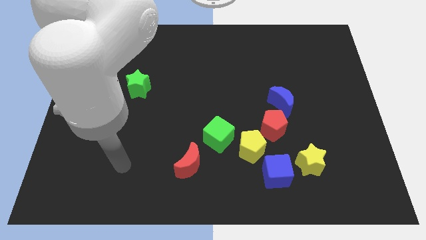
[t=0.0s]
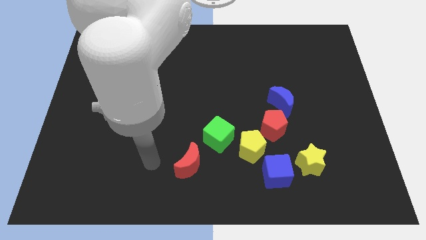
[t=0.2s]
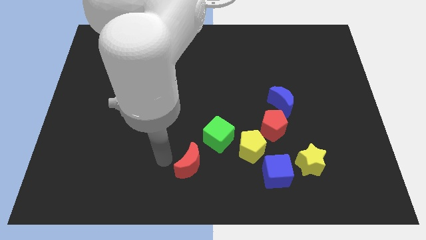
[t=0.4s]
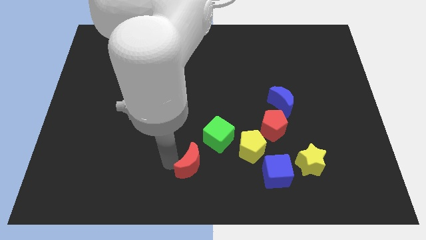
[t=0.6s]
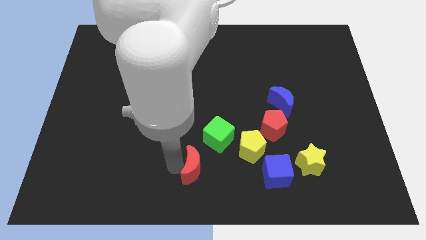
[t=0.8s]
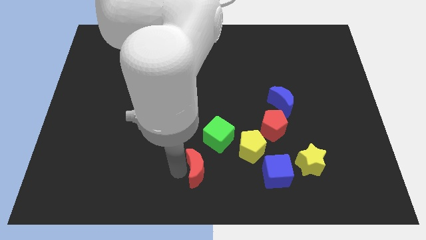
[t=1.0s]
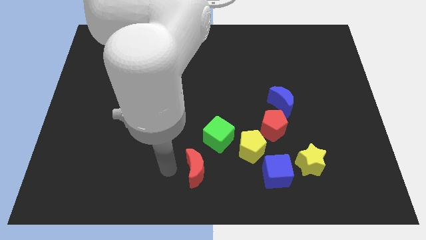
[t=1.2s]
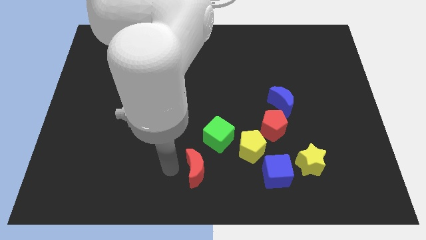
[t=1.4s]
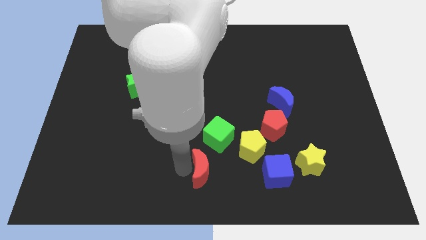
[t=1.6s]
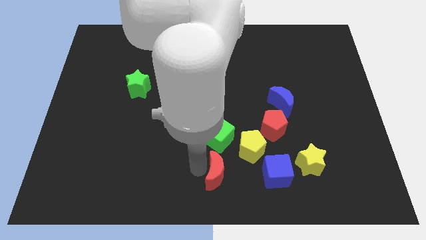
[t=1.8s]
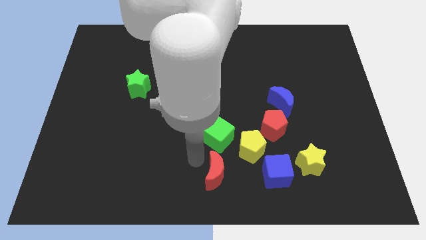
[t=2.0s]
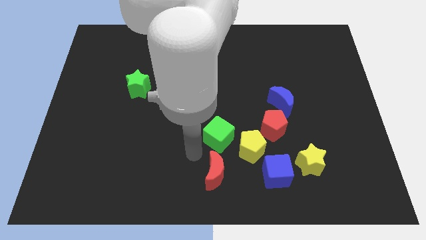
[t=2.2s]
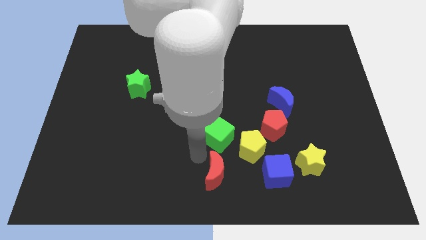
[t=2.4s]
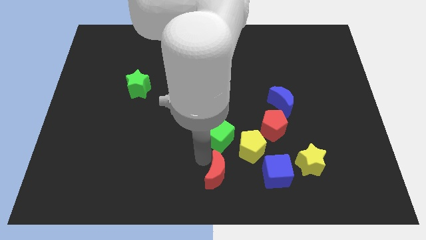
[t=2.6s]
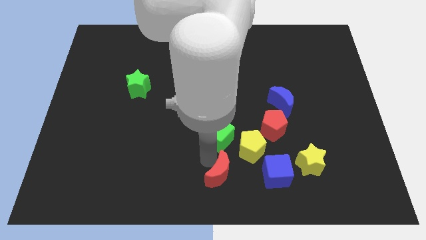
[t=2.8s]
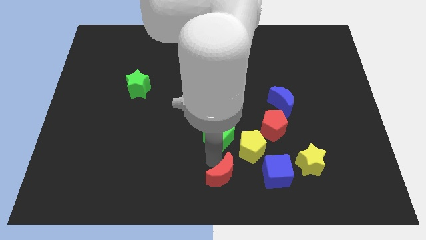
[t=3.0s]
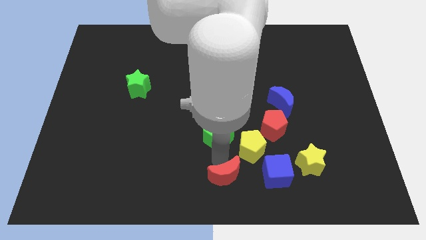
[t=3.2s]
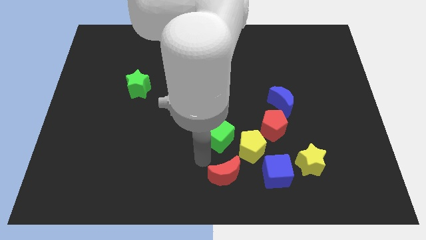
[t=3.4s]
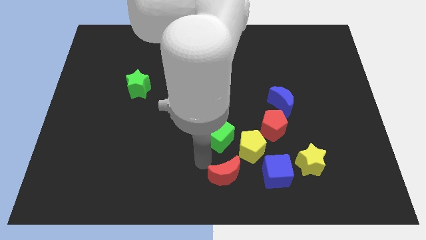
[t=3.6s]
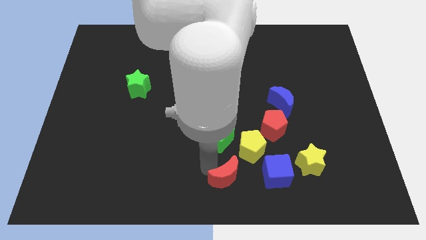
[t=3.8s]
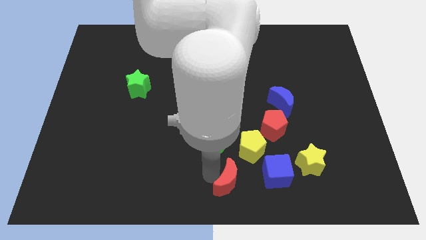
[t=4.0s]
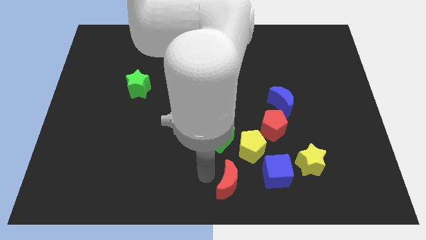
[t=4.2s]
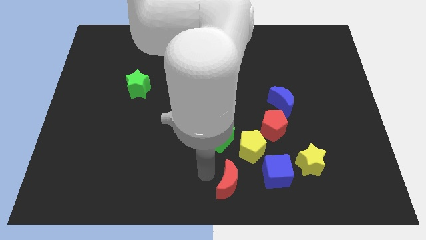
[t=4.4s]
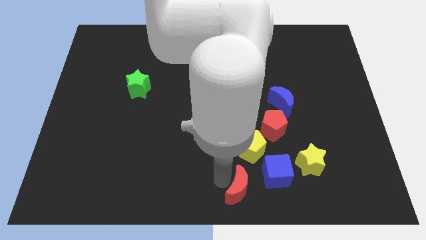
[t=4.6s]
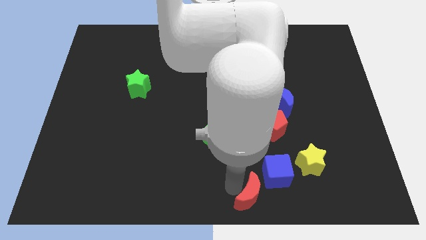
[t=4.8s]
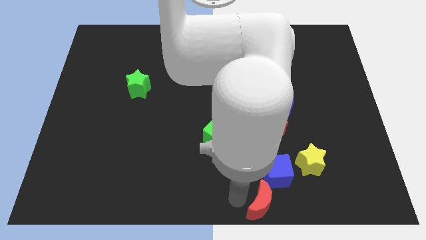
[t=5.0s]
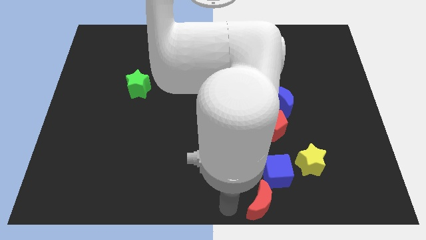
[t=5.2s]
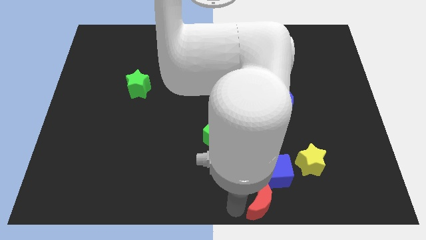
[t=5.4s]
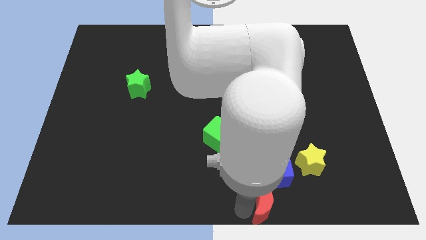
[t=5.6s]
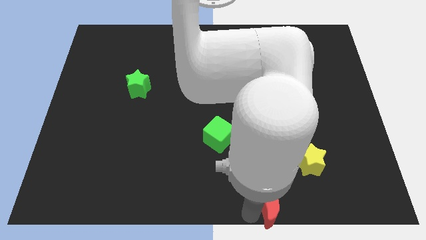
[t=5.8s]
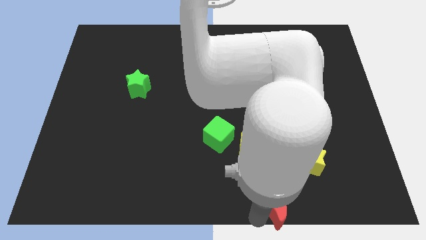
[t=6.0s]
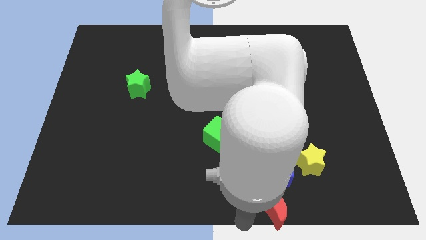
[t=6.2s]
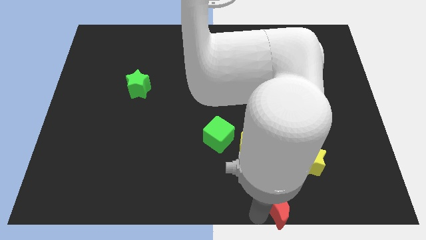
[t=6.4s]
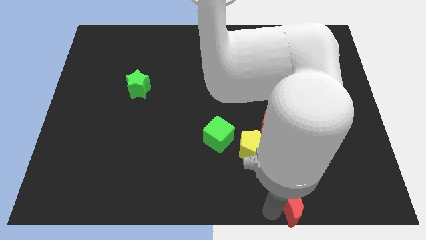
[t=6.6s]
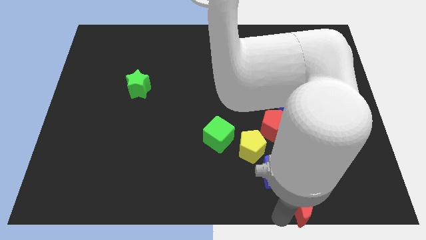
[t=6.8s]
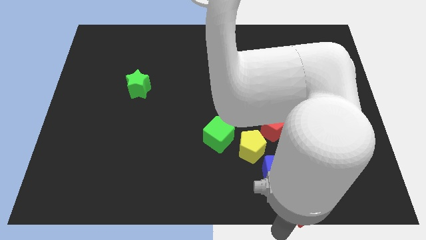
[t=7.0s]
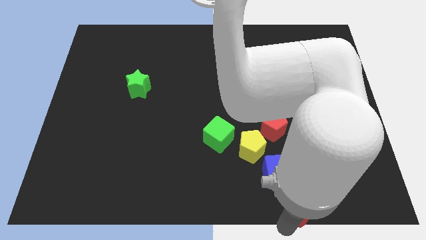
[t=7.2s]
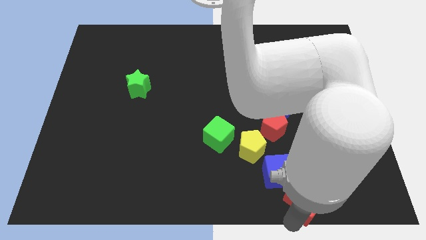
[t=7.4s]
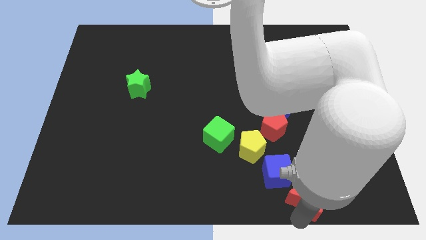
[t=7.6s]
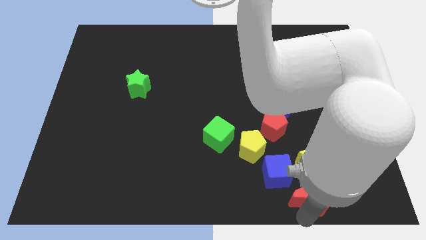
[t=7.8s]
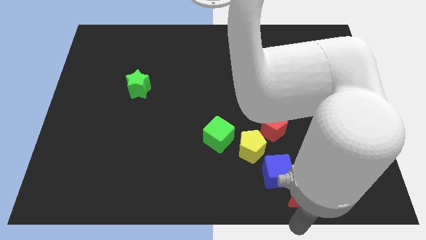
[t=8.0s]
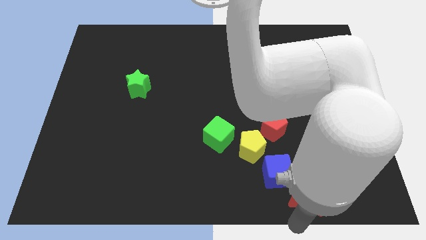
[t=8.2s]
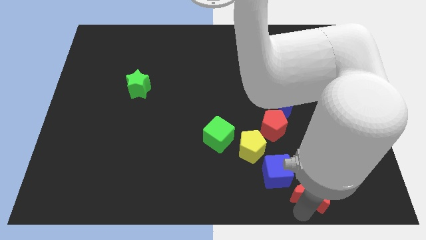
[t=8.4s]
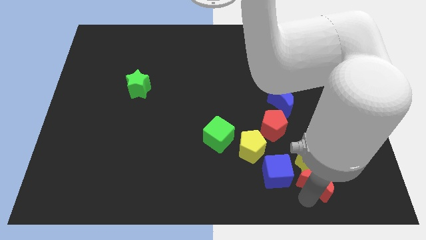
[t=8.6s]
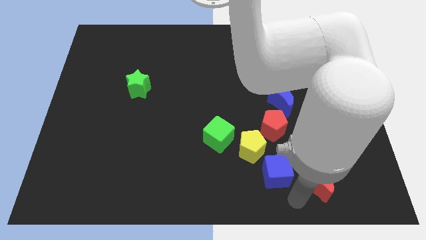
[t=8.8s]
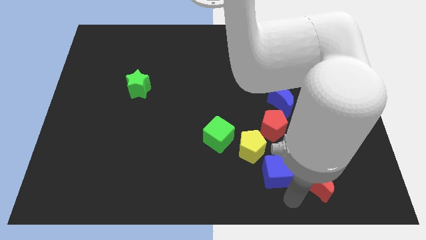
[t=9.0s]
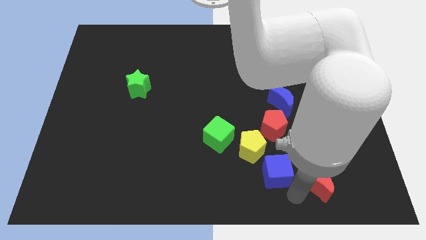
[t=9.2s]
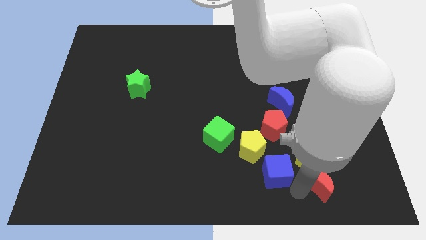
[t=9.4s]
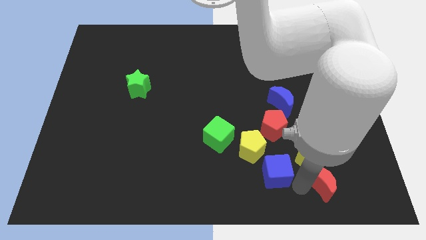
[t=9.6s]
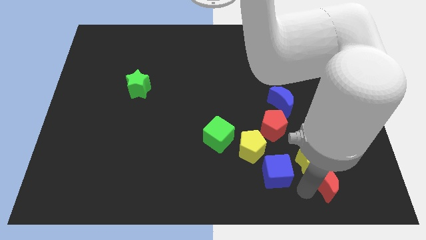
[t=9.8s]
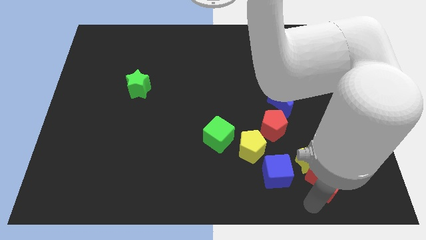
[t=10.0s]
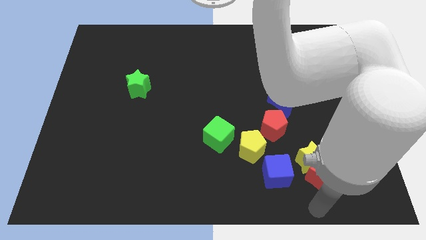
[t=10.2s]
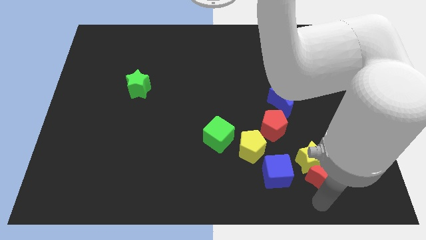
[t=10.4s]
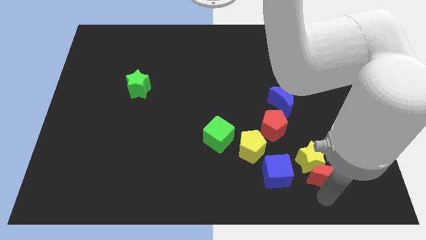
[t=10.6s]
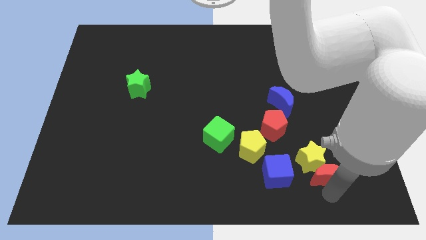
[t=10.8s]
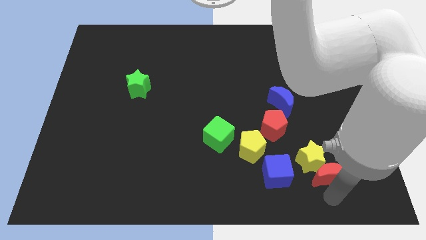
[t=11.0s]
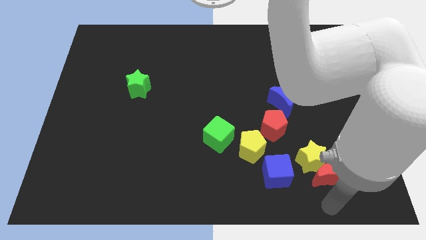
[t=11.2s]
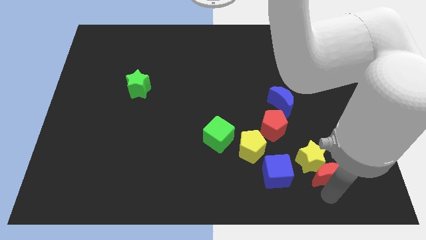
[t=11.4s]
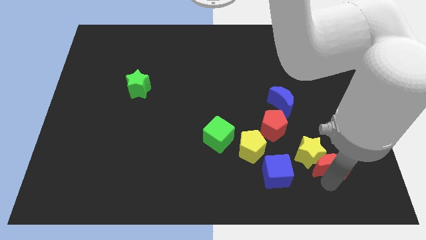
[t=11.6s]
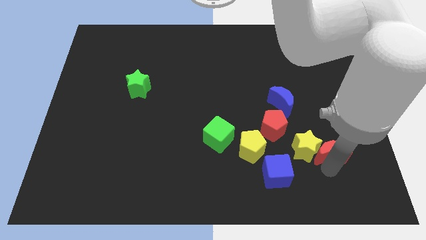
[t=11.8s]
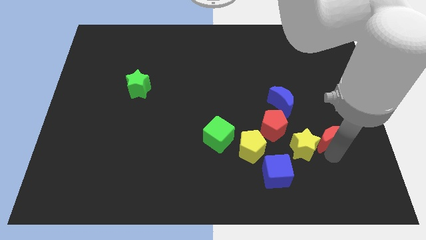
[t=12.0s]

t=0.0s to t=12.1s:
move the red moon just right of the red pentagon
